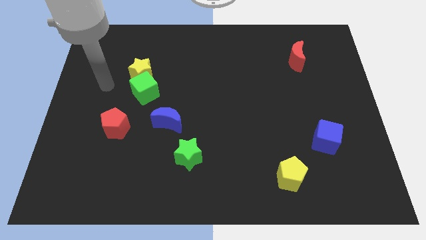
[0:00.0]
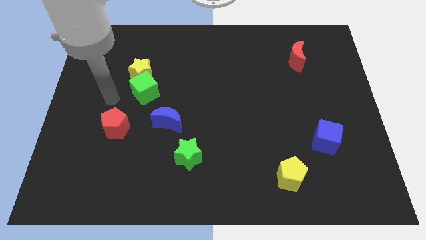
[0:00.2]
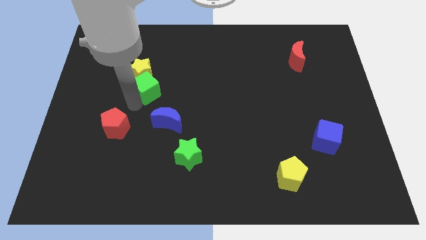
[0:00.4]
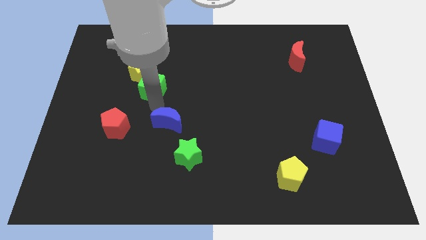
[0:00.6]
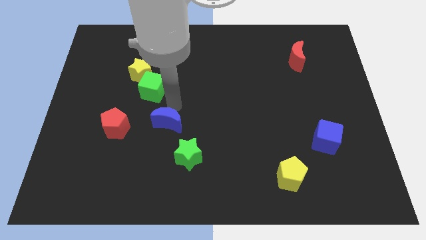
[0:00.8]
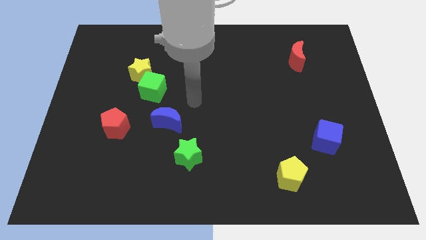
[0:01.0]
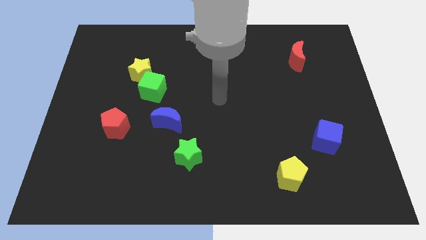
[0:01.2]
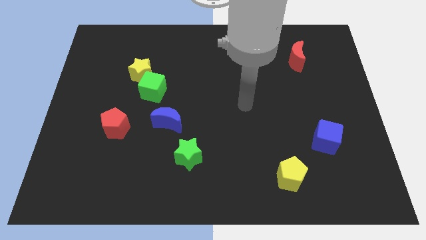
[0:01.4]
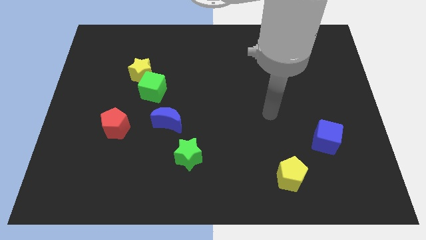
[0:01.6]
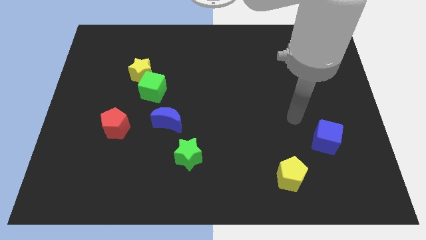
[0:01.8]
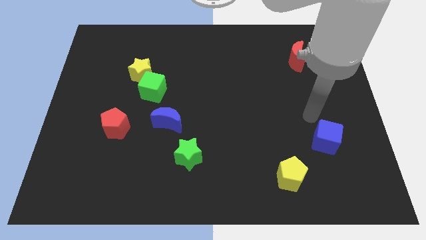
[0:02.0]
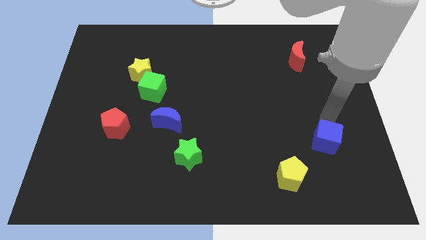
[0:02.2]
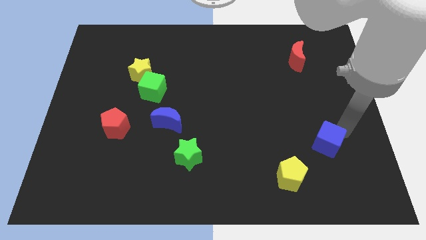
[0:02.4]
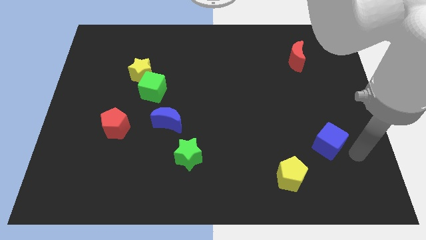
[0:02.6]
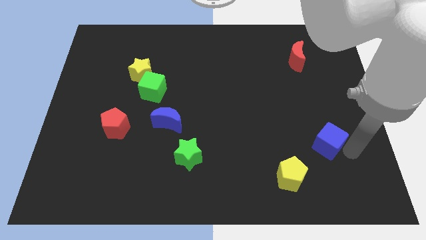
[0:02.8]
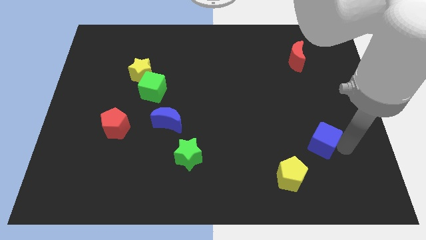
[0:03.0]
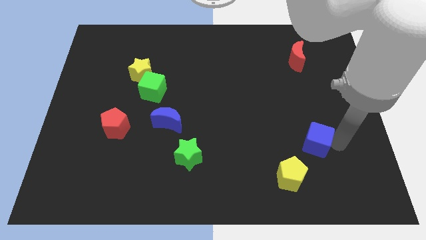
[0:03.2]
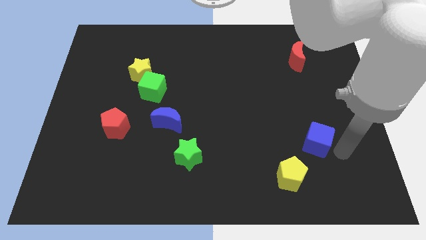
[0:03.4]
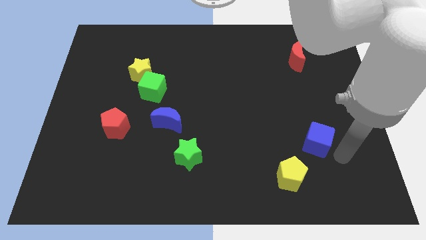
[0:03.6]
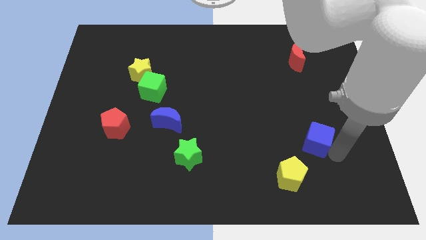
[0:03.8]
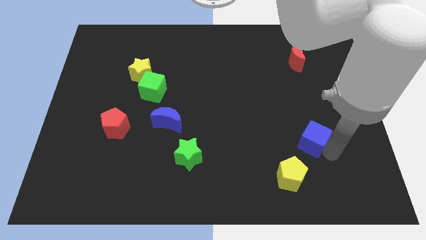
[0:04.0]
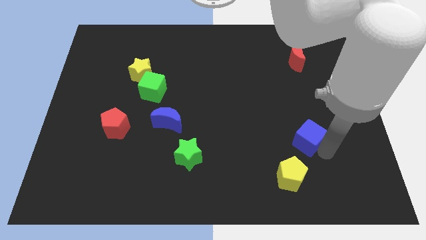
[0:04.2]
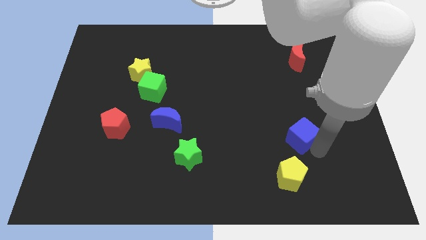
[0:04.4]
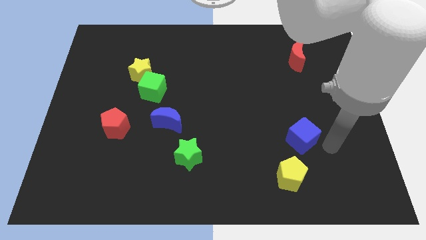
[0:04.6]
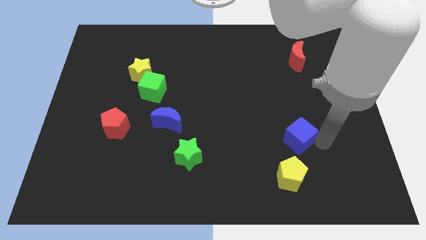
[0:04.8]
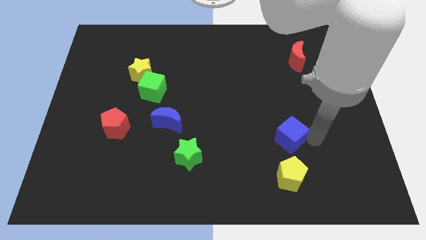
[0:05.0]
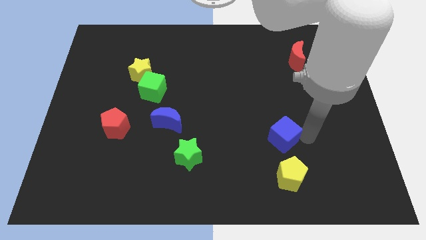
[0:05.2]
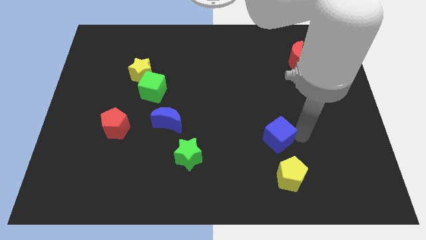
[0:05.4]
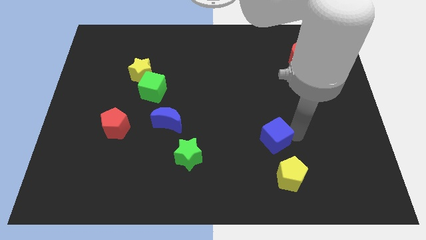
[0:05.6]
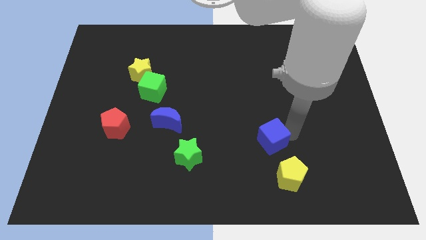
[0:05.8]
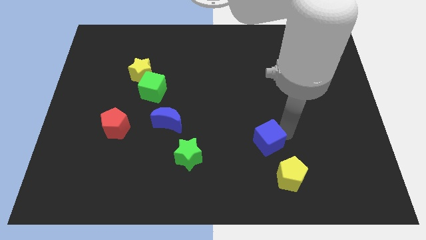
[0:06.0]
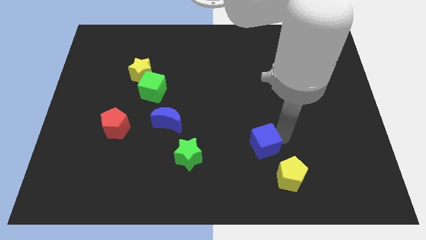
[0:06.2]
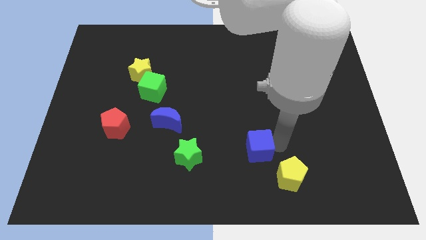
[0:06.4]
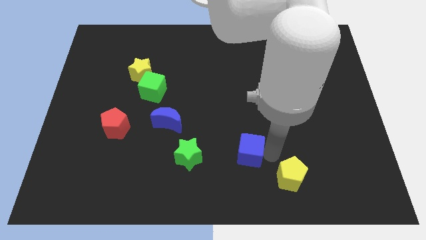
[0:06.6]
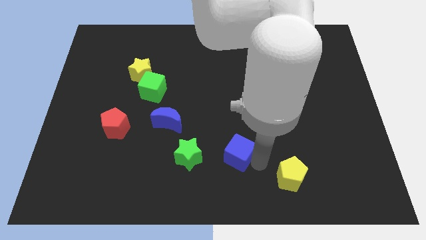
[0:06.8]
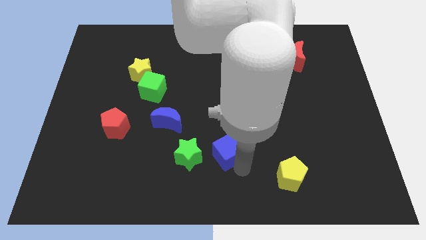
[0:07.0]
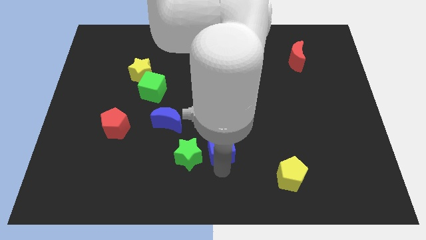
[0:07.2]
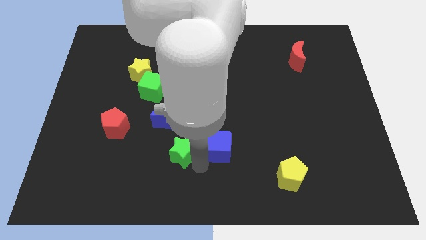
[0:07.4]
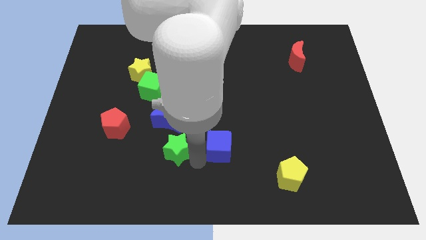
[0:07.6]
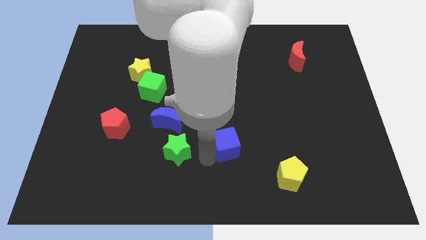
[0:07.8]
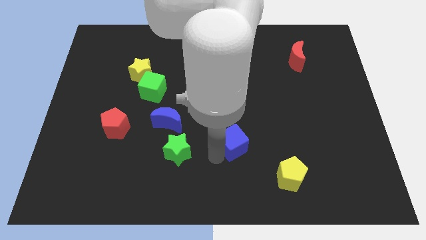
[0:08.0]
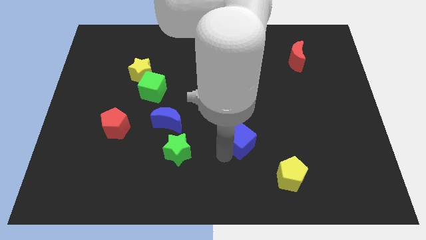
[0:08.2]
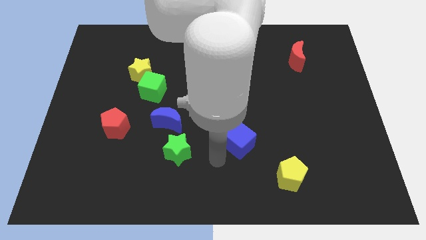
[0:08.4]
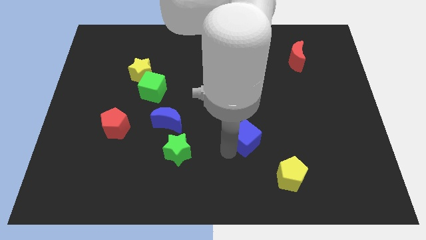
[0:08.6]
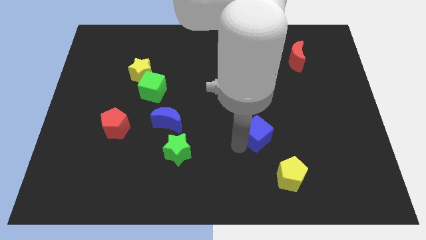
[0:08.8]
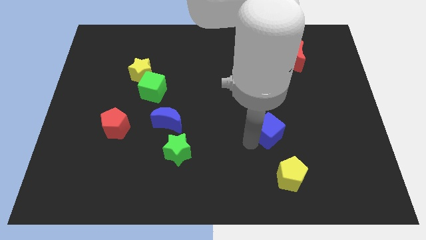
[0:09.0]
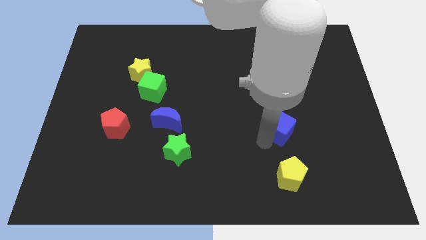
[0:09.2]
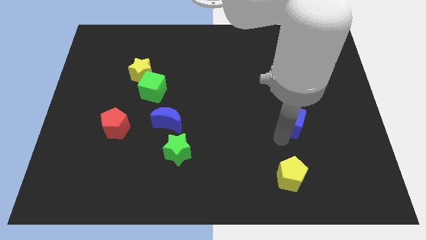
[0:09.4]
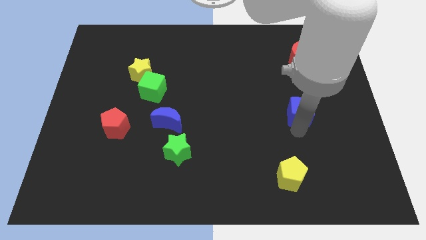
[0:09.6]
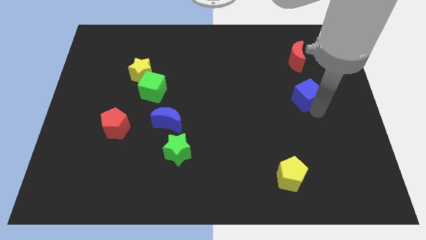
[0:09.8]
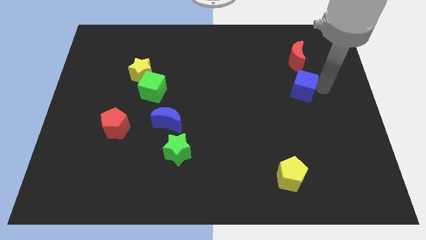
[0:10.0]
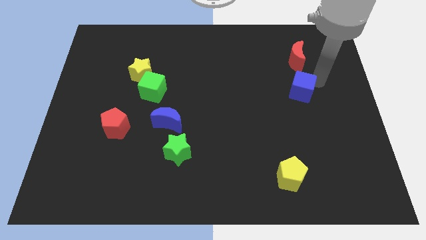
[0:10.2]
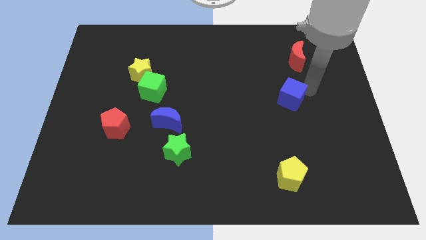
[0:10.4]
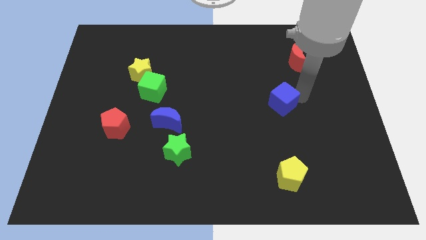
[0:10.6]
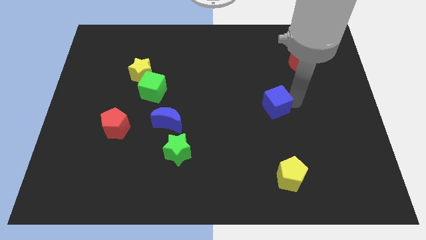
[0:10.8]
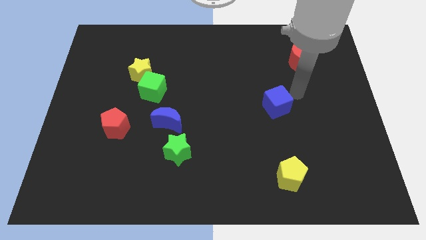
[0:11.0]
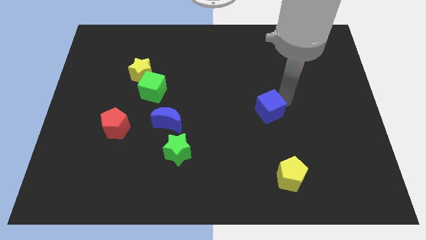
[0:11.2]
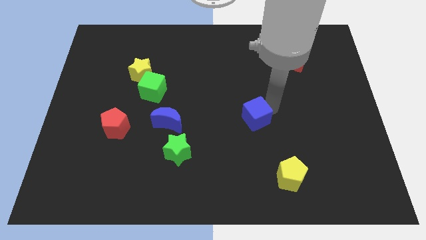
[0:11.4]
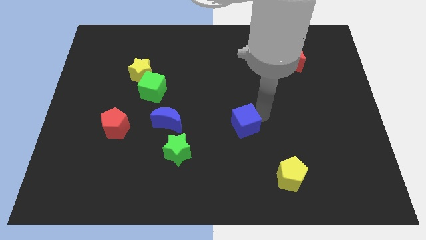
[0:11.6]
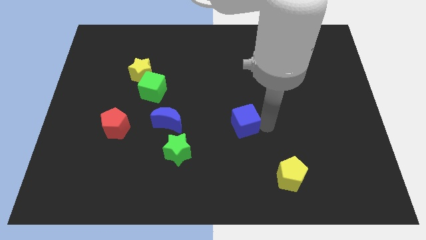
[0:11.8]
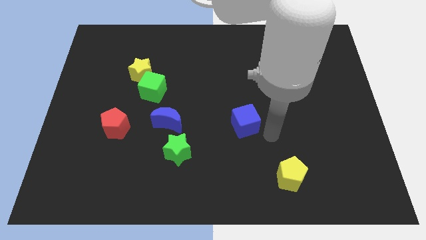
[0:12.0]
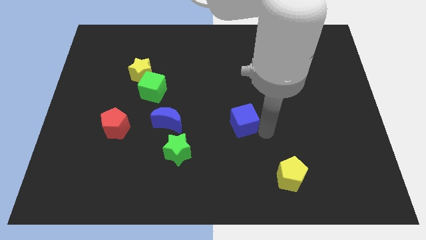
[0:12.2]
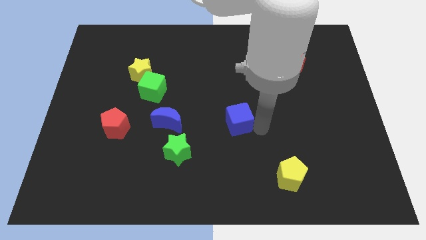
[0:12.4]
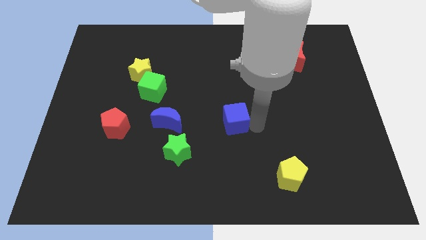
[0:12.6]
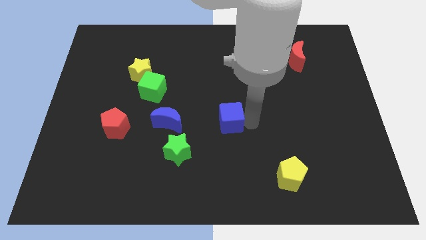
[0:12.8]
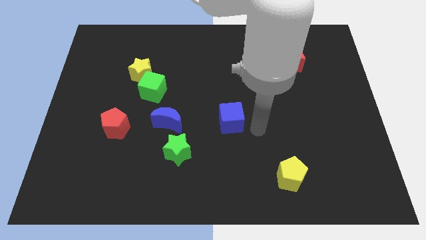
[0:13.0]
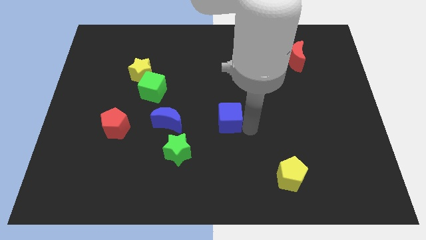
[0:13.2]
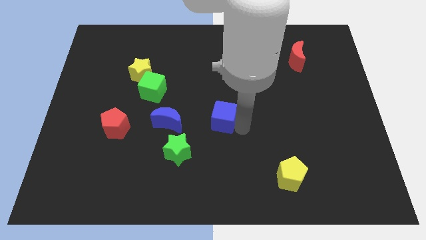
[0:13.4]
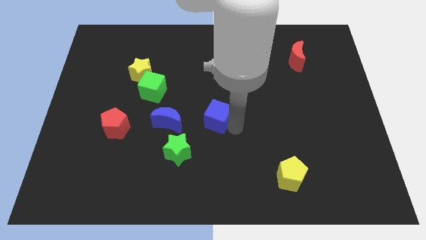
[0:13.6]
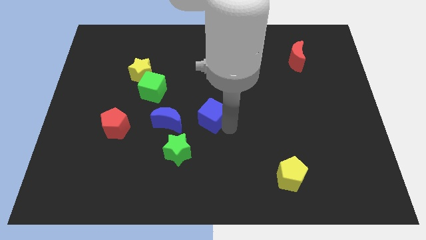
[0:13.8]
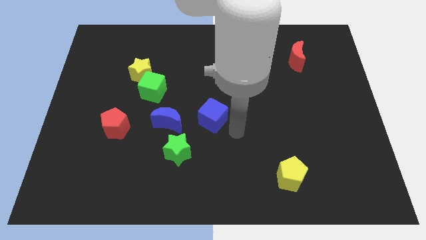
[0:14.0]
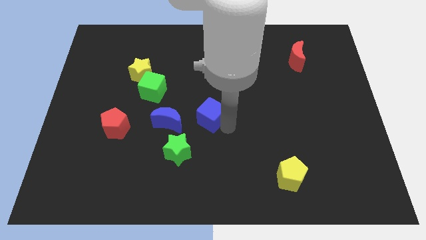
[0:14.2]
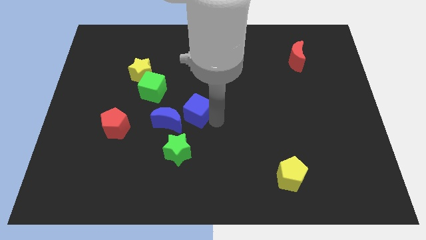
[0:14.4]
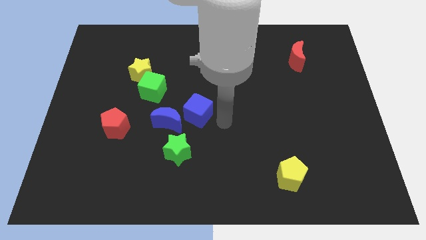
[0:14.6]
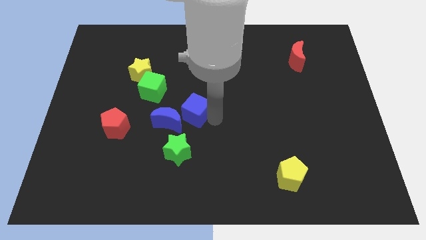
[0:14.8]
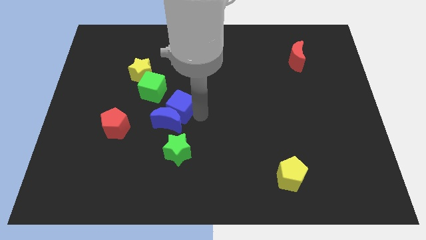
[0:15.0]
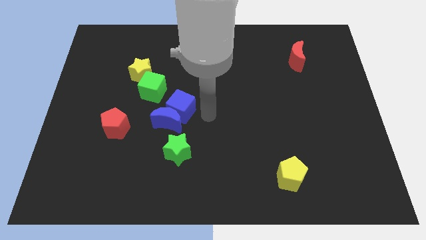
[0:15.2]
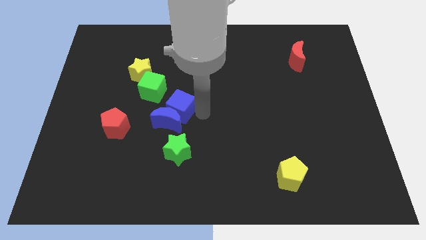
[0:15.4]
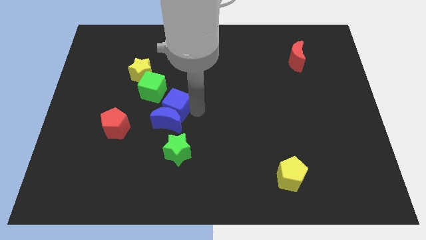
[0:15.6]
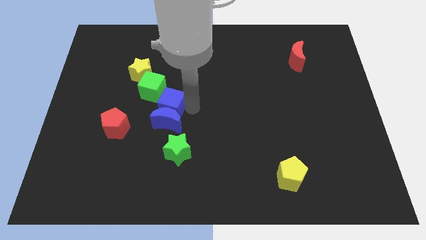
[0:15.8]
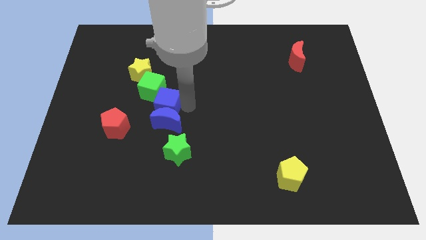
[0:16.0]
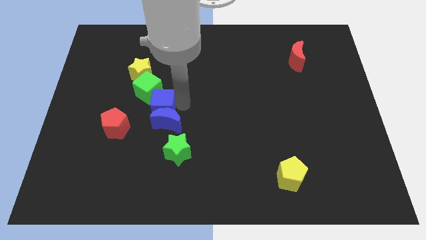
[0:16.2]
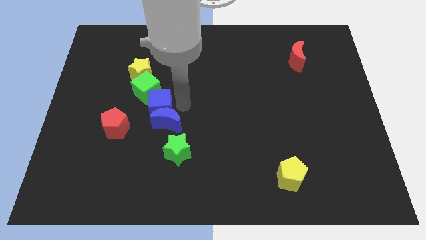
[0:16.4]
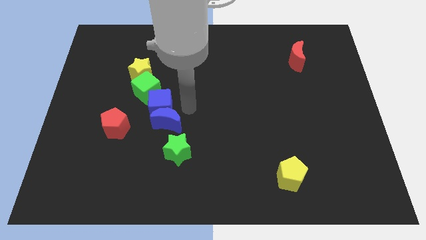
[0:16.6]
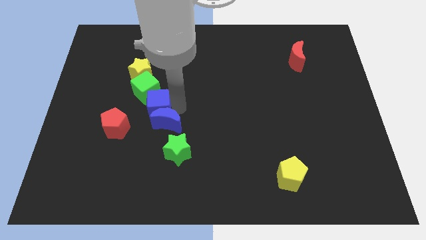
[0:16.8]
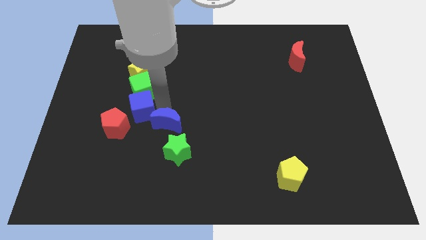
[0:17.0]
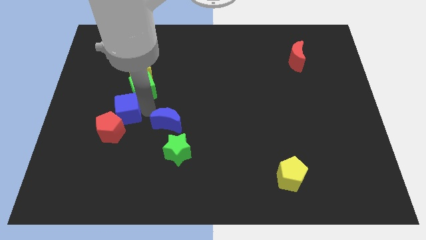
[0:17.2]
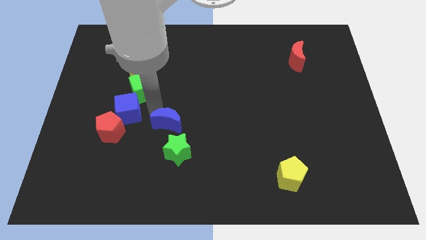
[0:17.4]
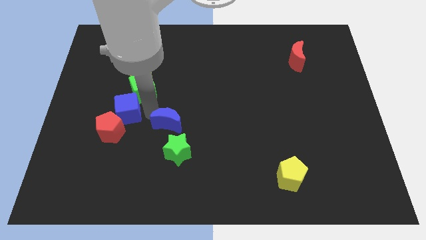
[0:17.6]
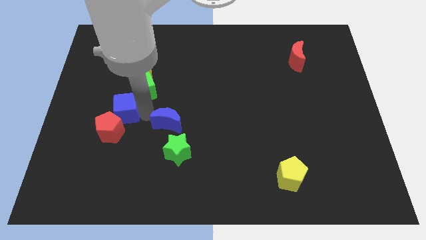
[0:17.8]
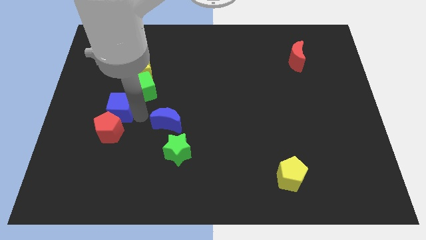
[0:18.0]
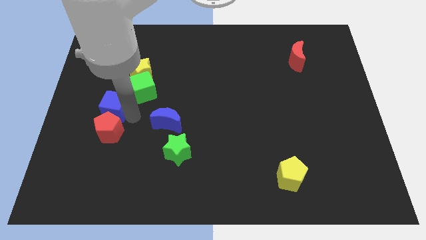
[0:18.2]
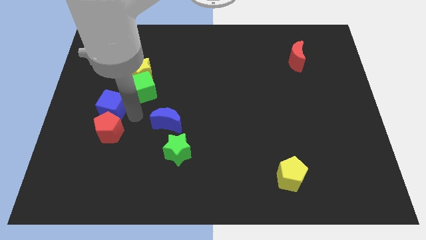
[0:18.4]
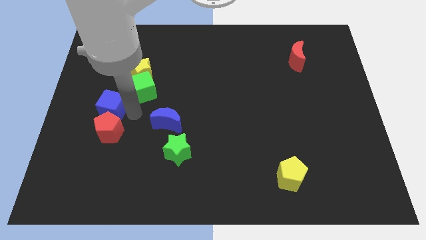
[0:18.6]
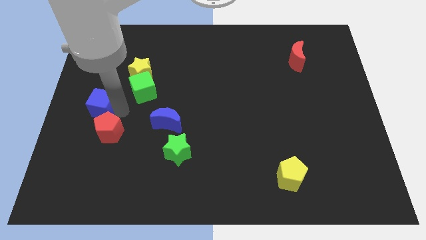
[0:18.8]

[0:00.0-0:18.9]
push the blue cube to the left side of the board
